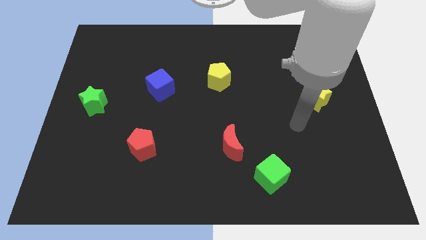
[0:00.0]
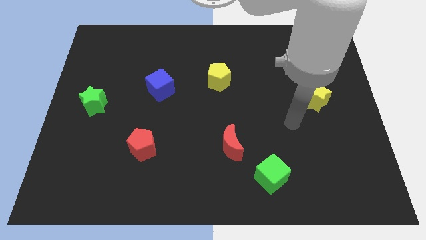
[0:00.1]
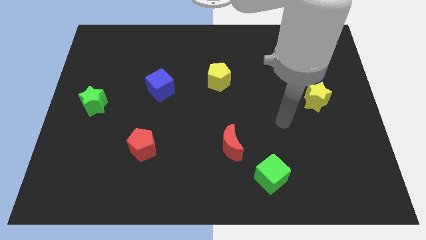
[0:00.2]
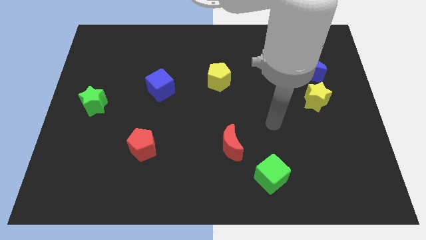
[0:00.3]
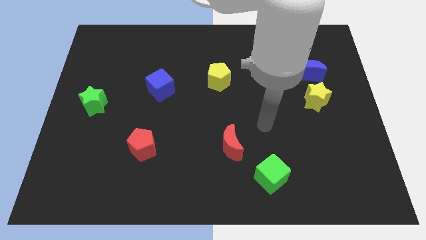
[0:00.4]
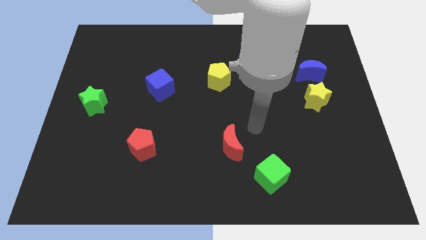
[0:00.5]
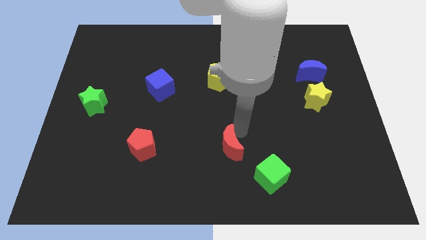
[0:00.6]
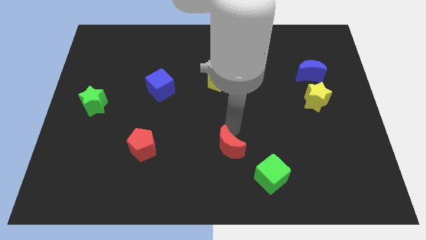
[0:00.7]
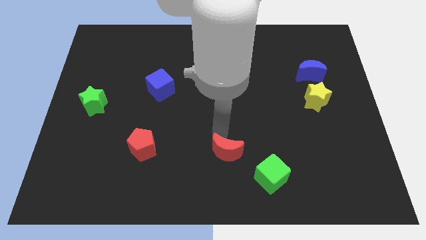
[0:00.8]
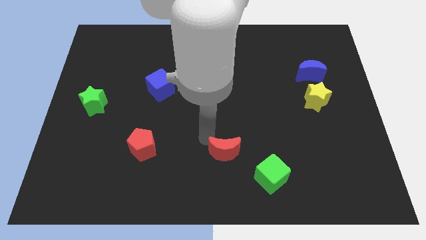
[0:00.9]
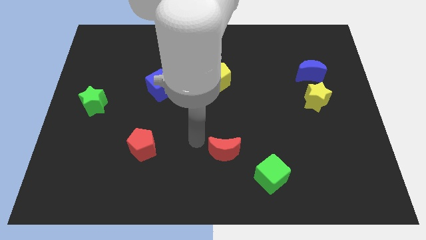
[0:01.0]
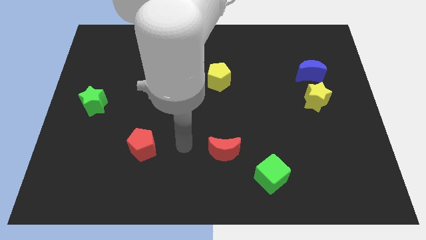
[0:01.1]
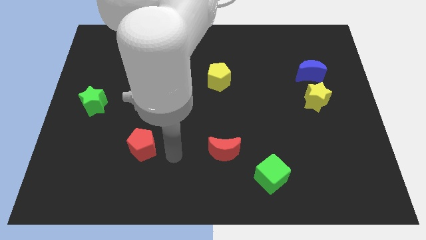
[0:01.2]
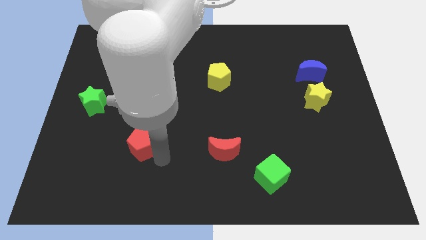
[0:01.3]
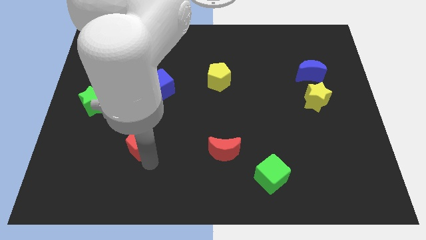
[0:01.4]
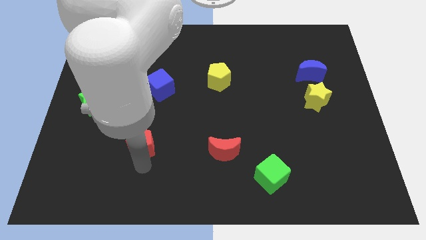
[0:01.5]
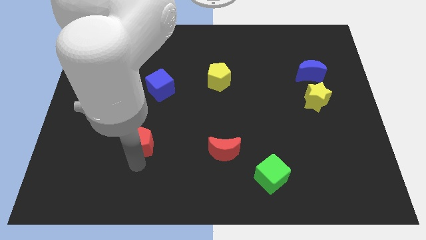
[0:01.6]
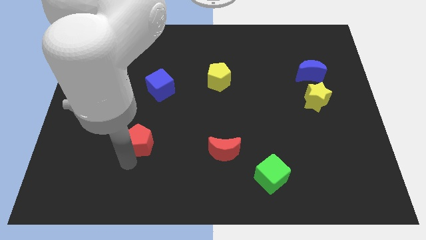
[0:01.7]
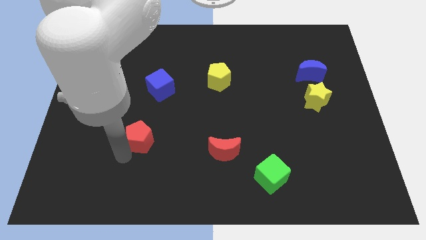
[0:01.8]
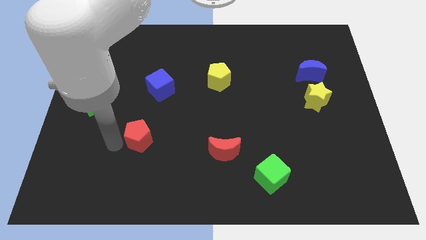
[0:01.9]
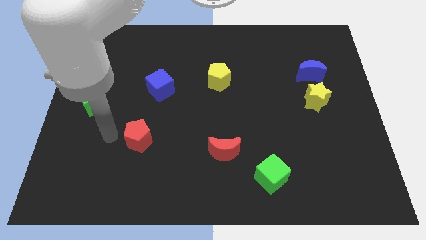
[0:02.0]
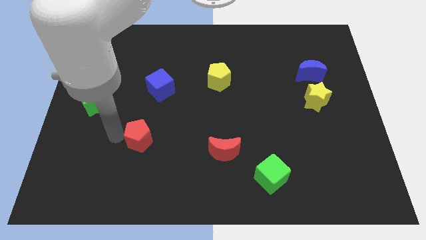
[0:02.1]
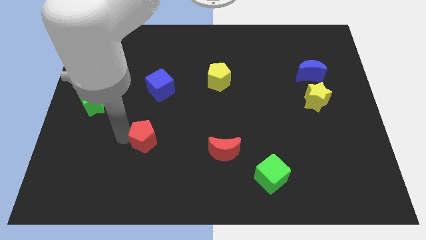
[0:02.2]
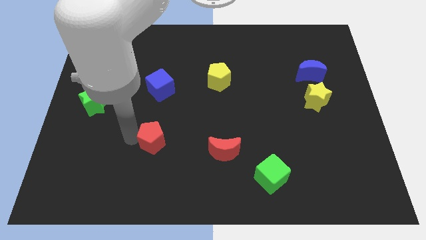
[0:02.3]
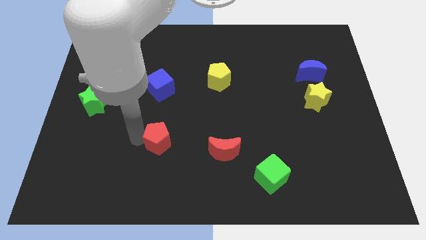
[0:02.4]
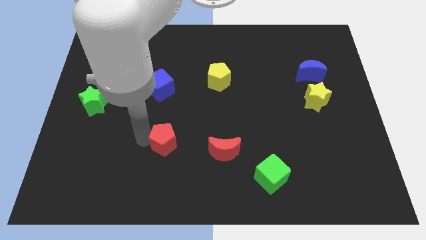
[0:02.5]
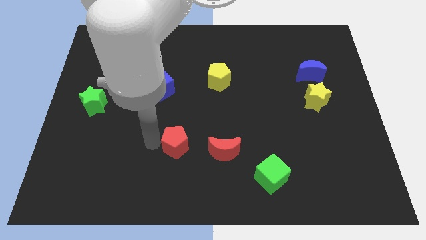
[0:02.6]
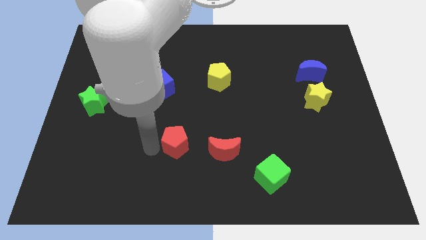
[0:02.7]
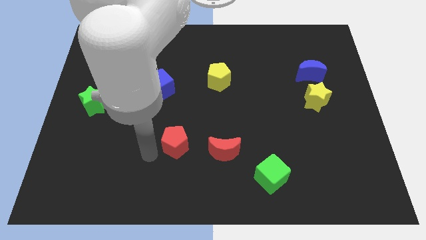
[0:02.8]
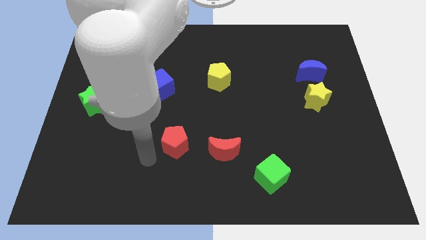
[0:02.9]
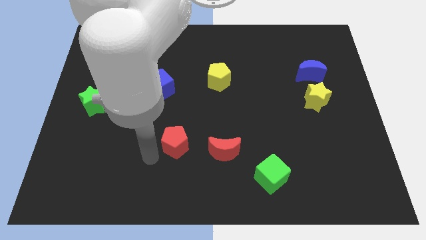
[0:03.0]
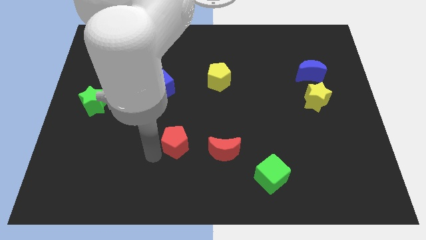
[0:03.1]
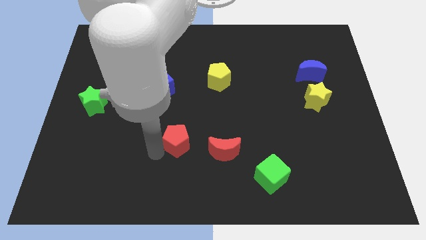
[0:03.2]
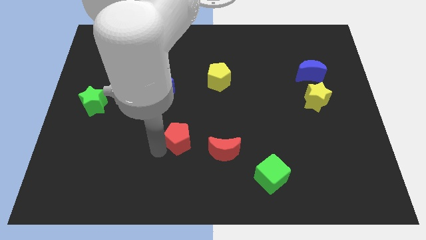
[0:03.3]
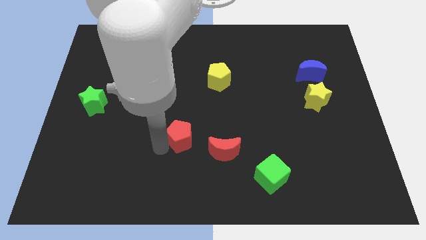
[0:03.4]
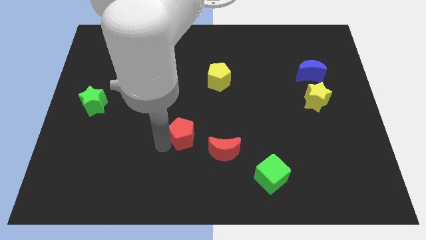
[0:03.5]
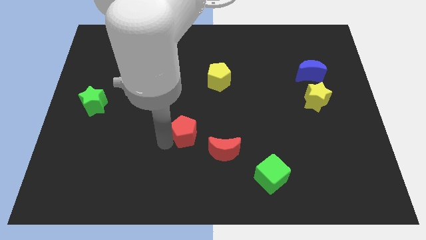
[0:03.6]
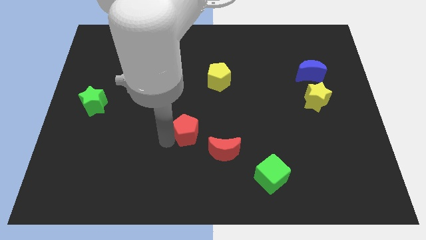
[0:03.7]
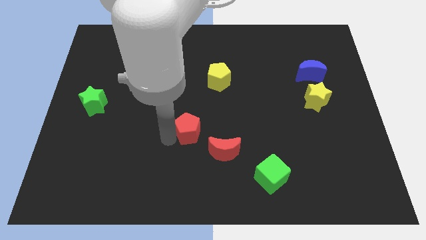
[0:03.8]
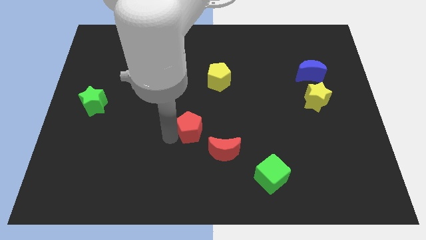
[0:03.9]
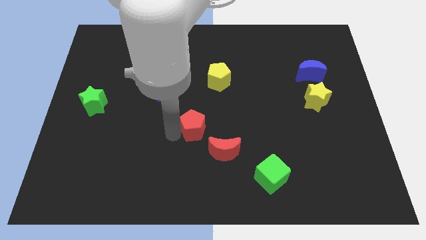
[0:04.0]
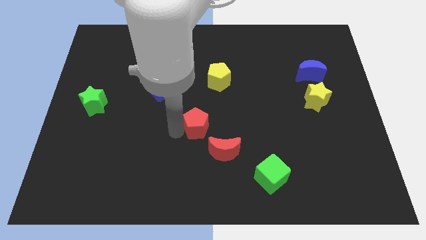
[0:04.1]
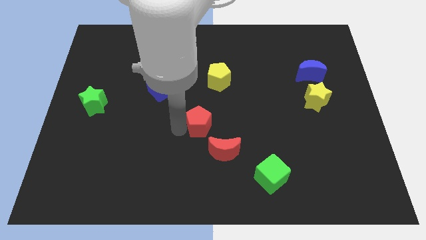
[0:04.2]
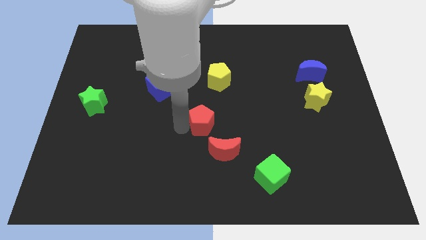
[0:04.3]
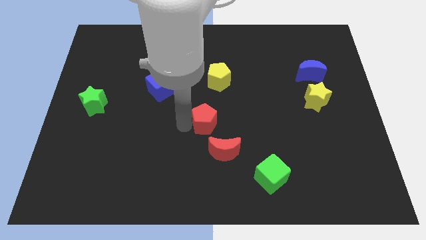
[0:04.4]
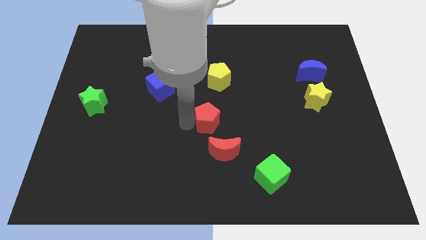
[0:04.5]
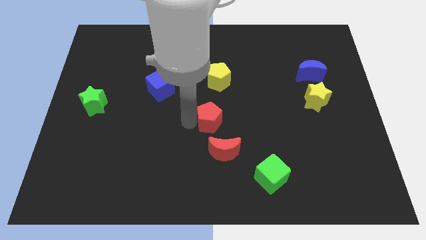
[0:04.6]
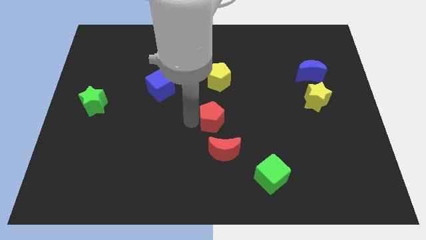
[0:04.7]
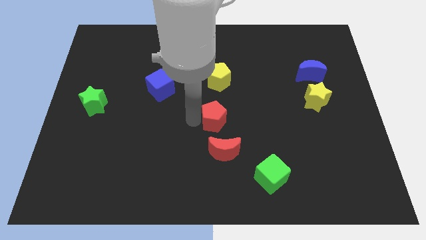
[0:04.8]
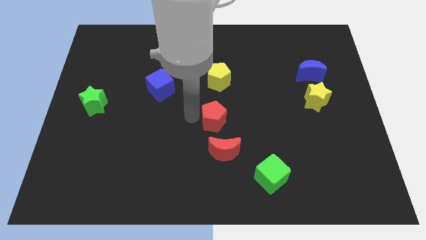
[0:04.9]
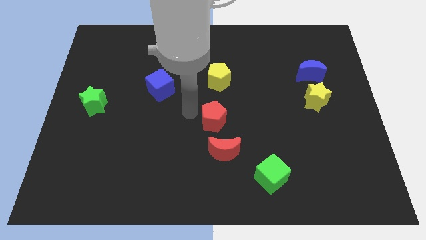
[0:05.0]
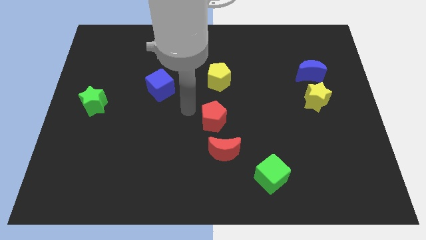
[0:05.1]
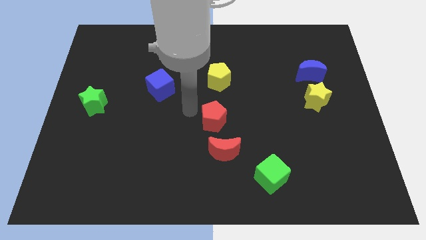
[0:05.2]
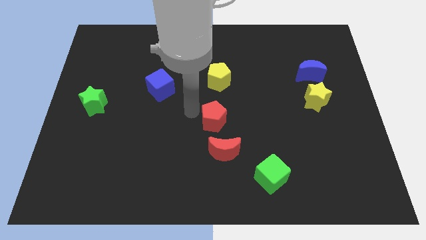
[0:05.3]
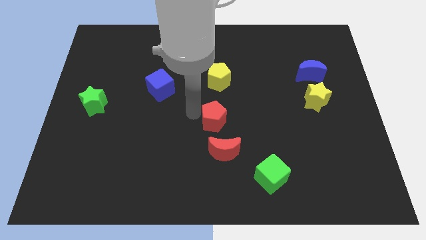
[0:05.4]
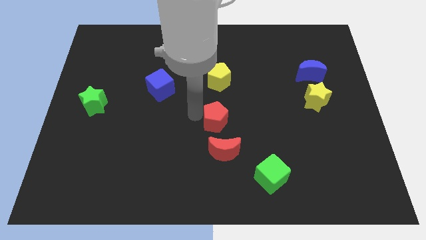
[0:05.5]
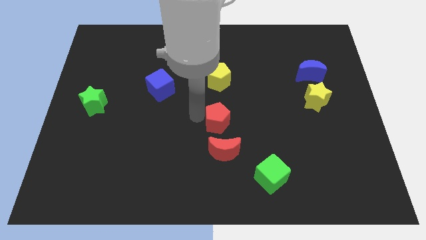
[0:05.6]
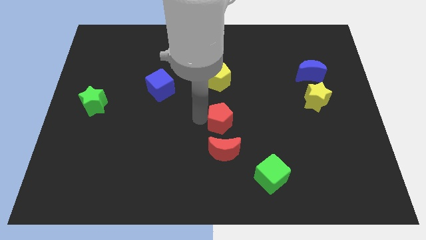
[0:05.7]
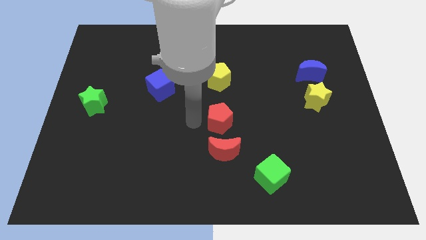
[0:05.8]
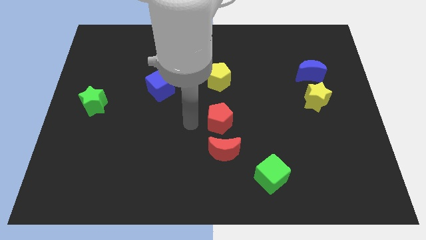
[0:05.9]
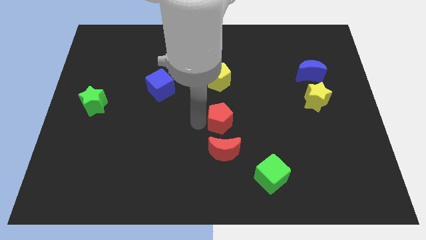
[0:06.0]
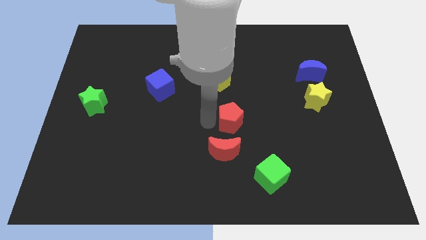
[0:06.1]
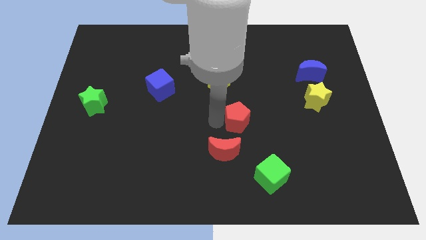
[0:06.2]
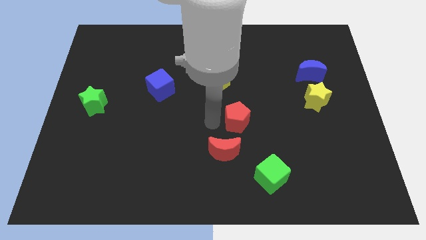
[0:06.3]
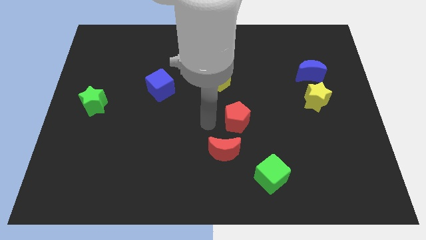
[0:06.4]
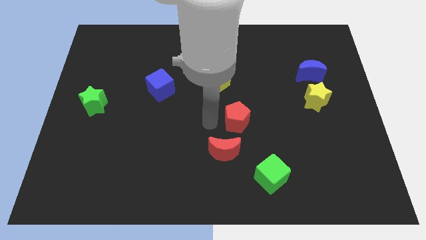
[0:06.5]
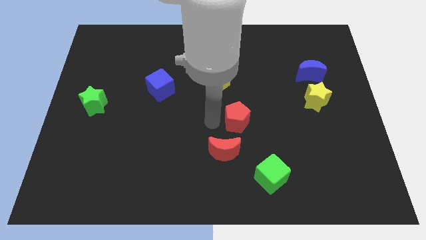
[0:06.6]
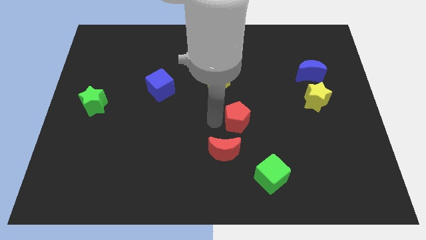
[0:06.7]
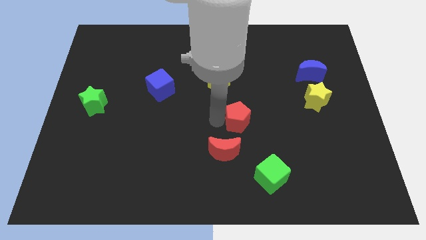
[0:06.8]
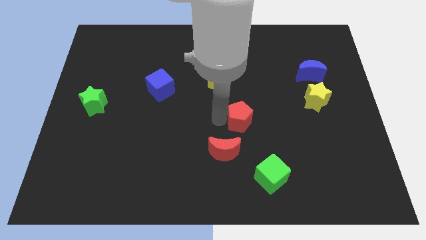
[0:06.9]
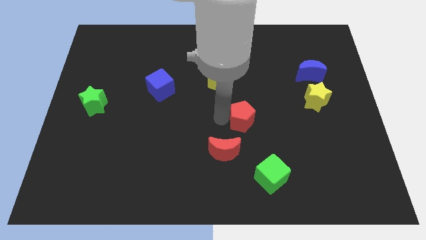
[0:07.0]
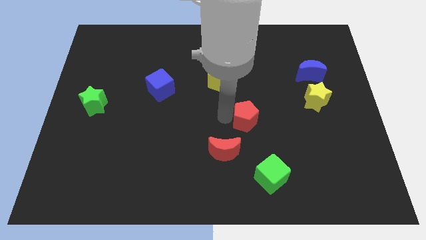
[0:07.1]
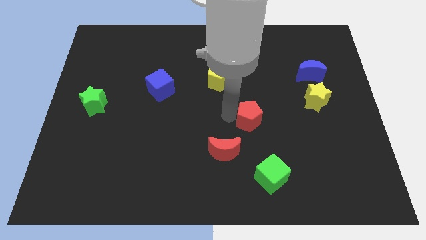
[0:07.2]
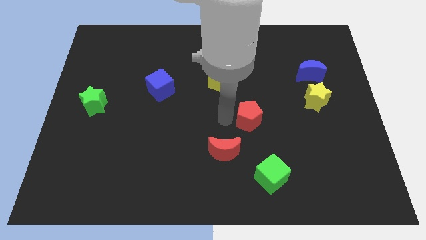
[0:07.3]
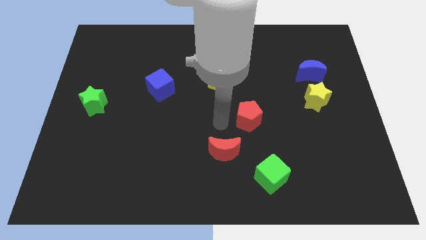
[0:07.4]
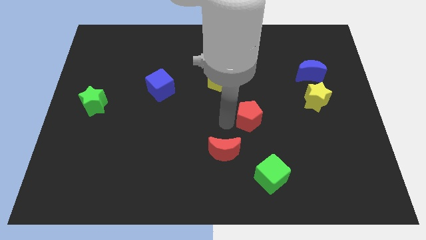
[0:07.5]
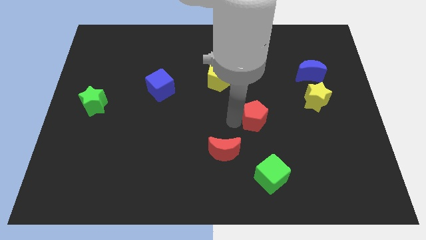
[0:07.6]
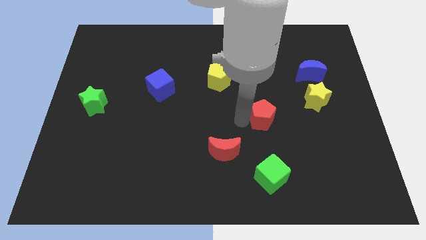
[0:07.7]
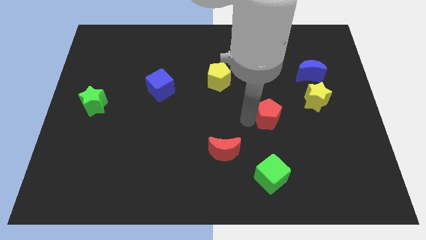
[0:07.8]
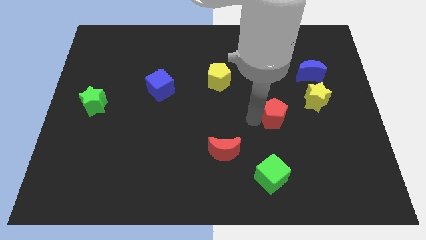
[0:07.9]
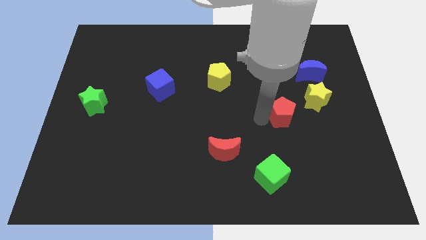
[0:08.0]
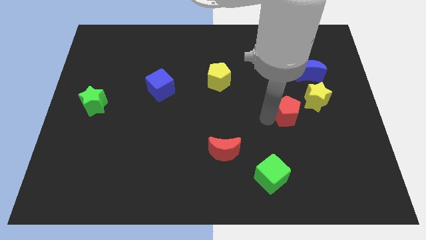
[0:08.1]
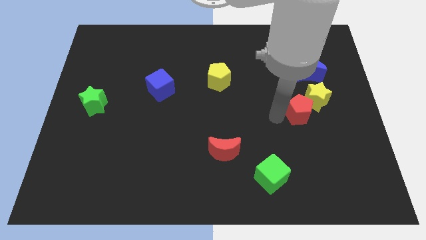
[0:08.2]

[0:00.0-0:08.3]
push the red pentagon close to the yellow star
